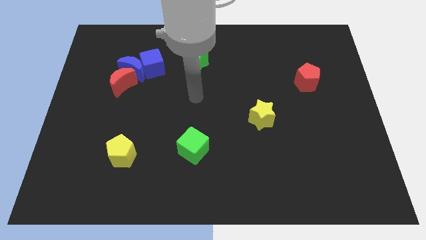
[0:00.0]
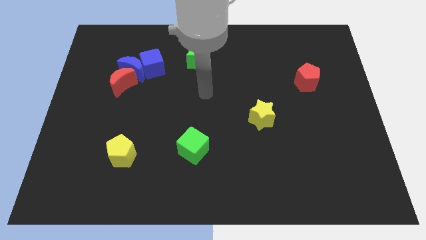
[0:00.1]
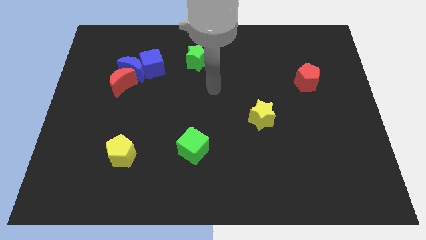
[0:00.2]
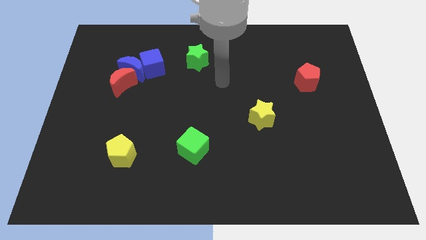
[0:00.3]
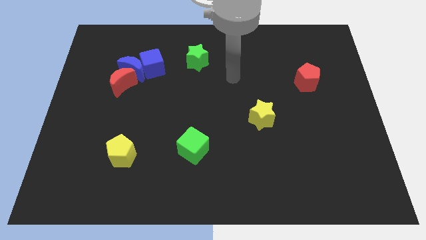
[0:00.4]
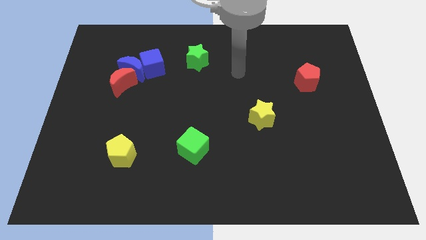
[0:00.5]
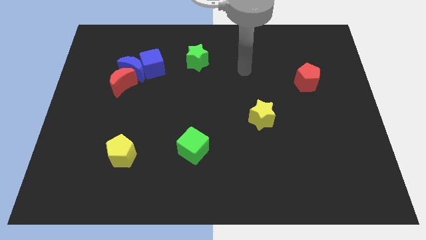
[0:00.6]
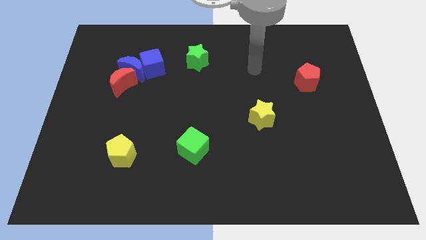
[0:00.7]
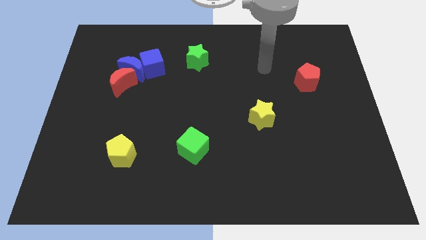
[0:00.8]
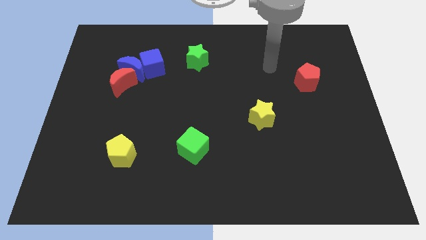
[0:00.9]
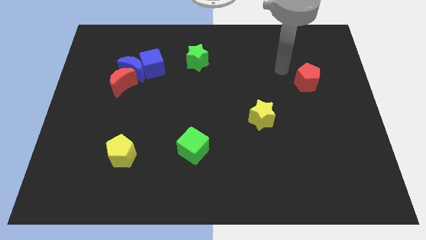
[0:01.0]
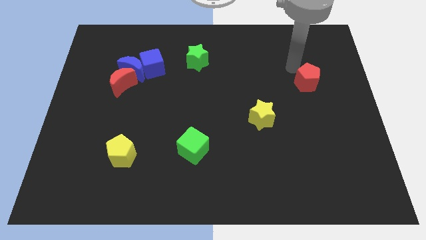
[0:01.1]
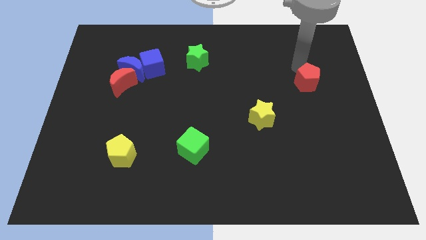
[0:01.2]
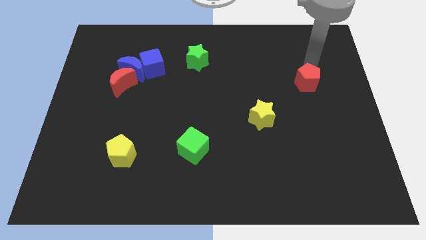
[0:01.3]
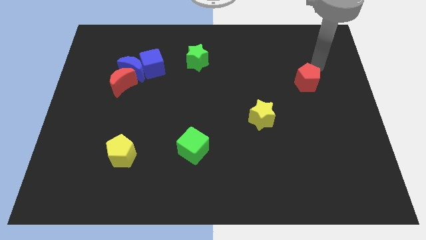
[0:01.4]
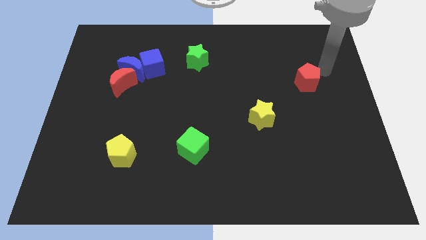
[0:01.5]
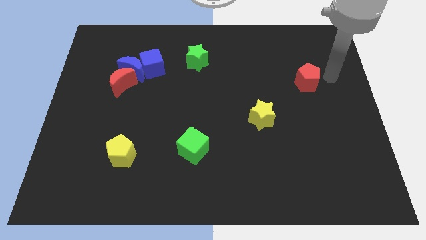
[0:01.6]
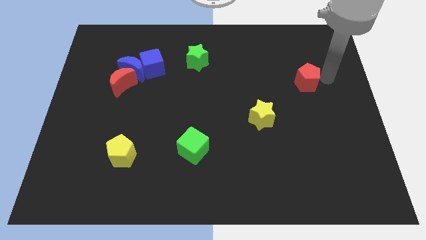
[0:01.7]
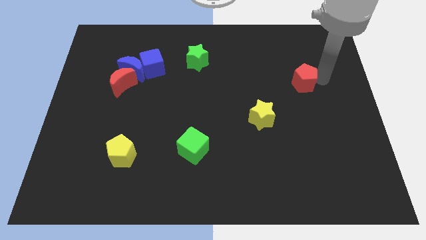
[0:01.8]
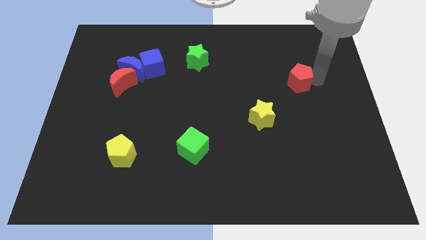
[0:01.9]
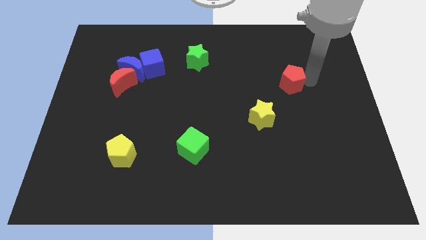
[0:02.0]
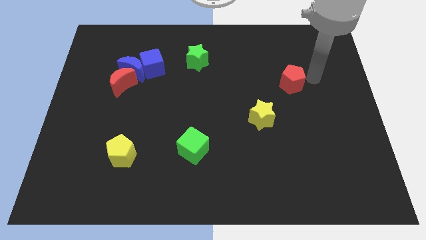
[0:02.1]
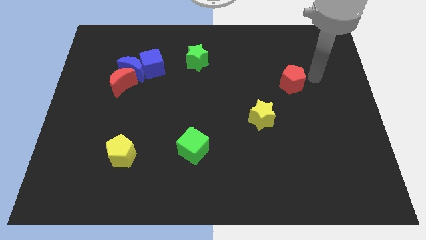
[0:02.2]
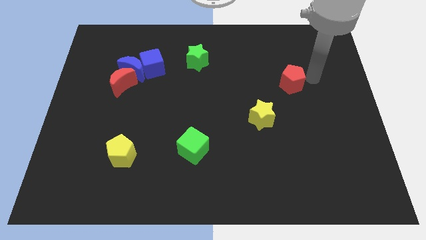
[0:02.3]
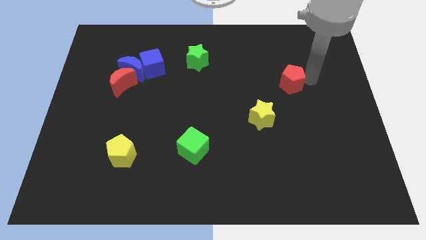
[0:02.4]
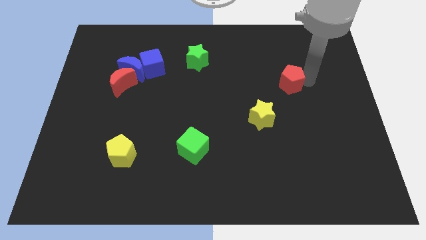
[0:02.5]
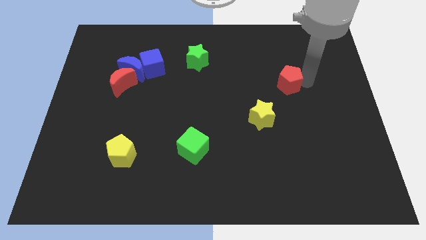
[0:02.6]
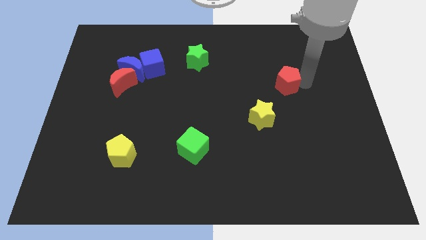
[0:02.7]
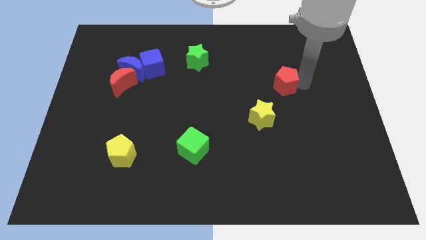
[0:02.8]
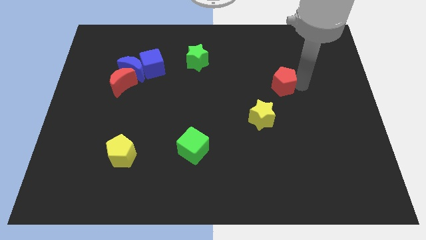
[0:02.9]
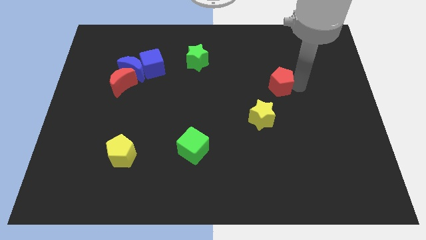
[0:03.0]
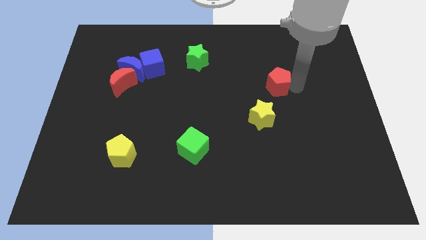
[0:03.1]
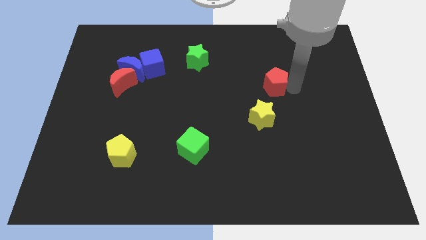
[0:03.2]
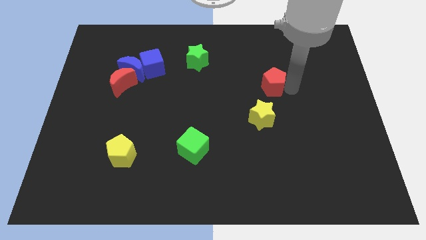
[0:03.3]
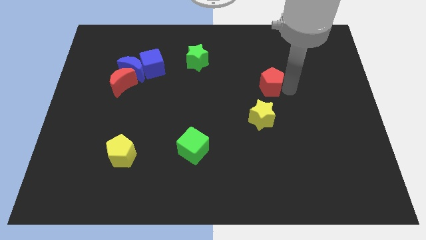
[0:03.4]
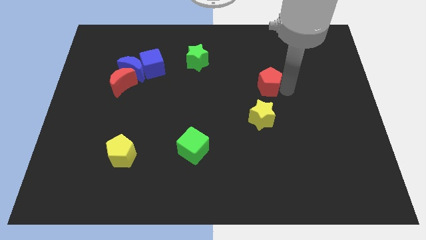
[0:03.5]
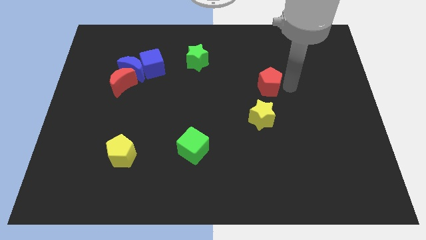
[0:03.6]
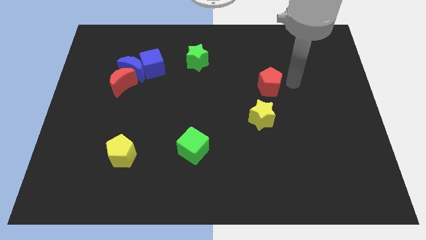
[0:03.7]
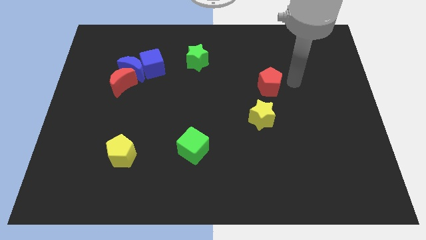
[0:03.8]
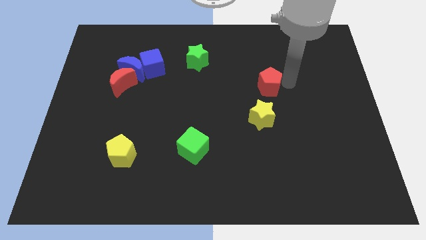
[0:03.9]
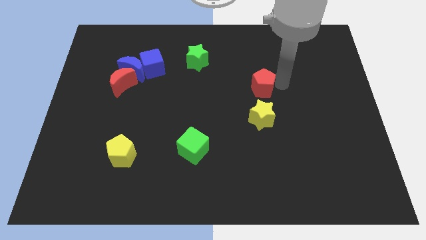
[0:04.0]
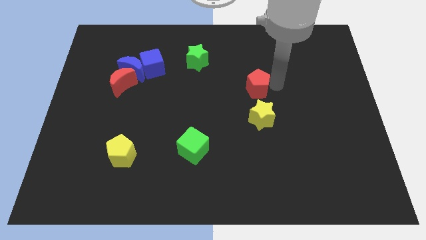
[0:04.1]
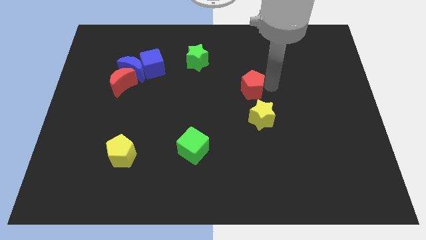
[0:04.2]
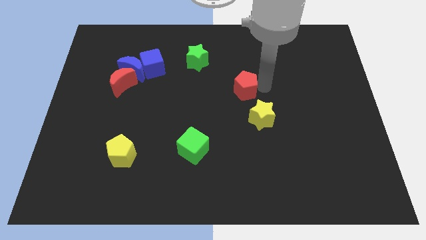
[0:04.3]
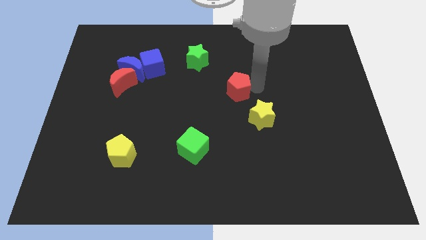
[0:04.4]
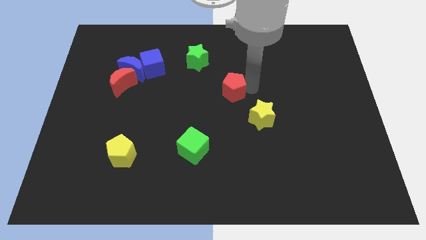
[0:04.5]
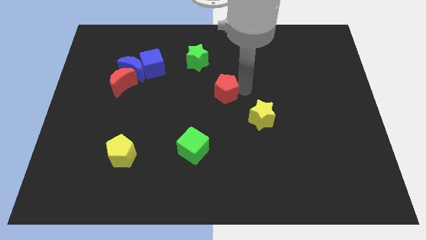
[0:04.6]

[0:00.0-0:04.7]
move the red pentagon left

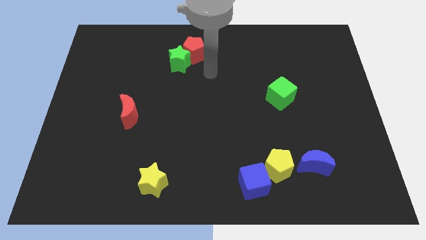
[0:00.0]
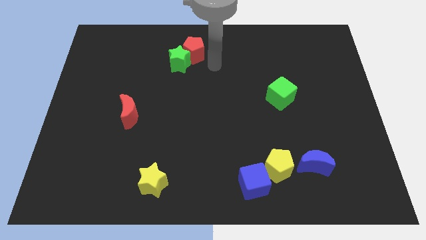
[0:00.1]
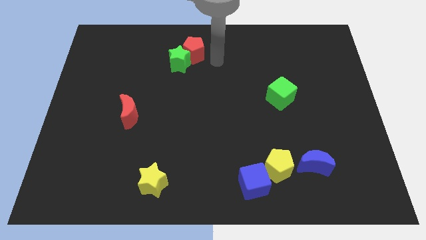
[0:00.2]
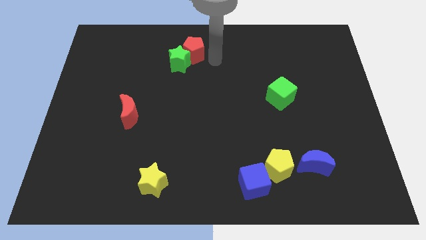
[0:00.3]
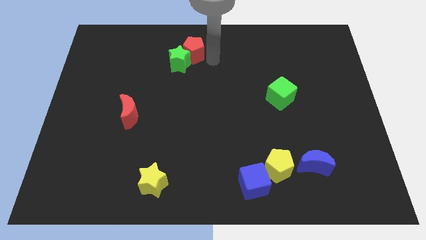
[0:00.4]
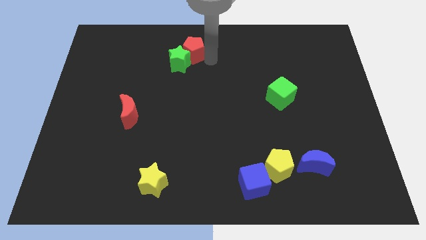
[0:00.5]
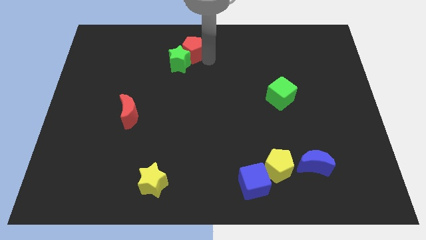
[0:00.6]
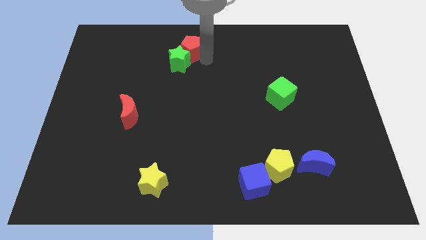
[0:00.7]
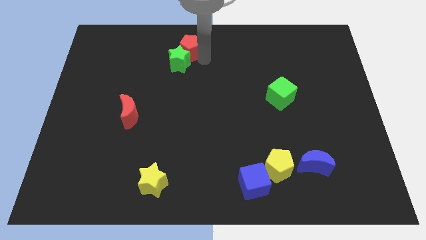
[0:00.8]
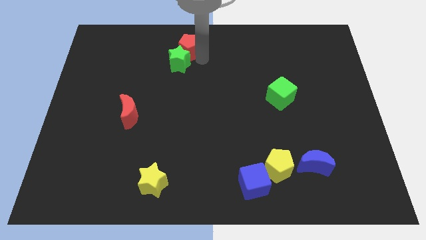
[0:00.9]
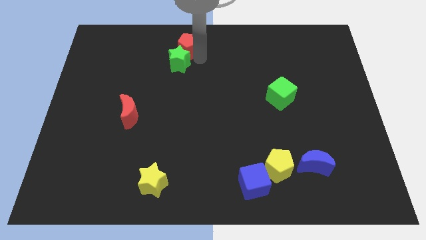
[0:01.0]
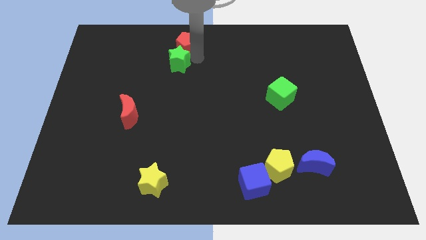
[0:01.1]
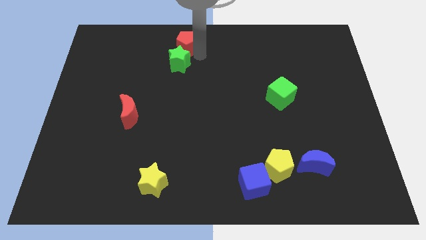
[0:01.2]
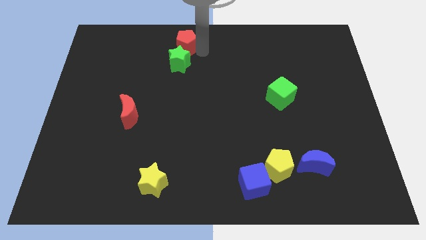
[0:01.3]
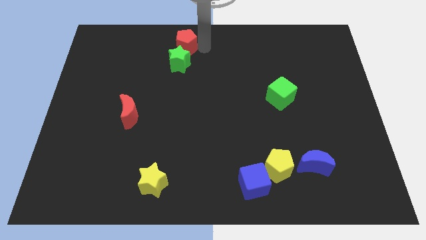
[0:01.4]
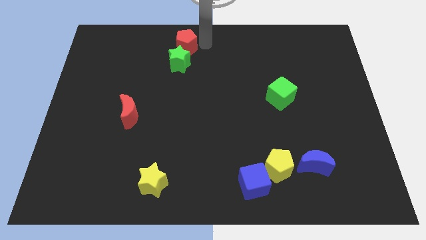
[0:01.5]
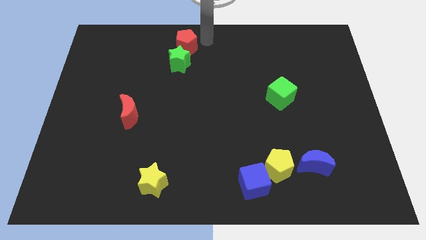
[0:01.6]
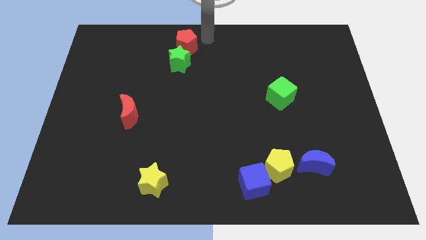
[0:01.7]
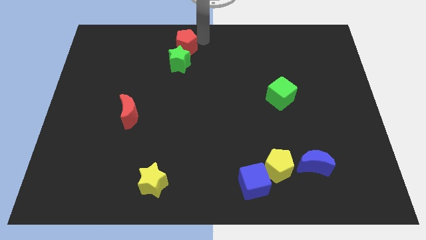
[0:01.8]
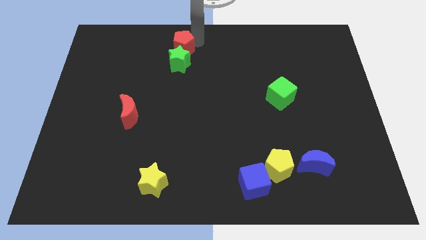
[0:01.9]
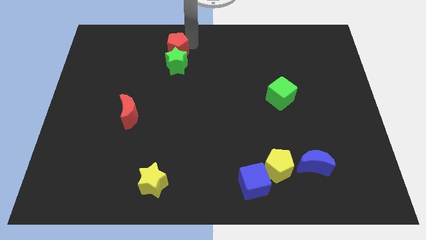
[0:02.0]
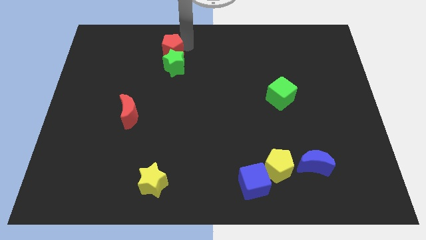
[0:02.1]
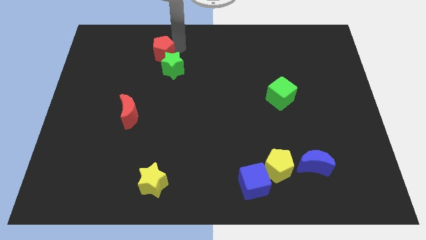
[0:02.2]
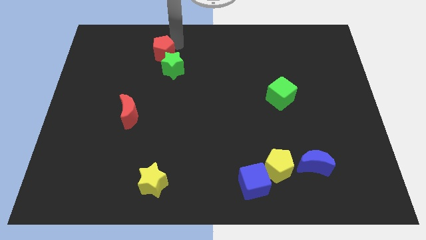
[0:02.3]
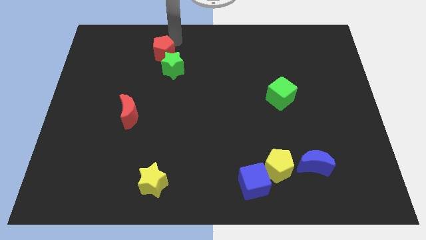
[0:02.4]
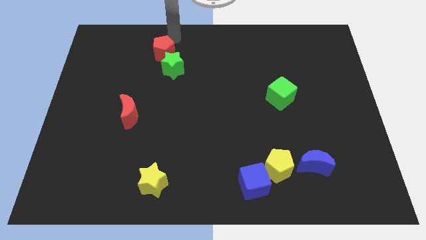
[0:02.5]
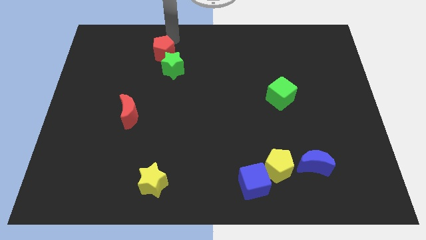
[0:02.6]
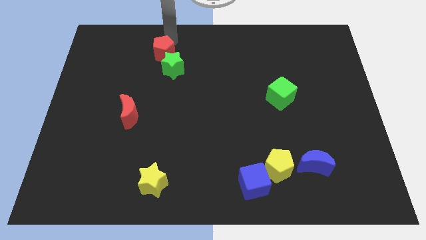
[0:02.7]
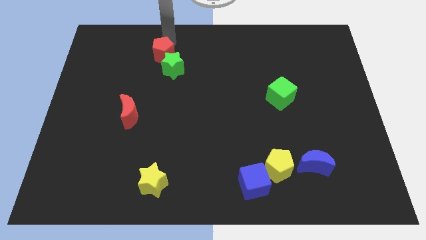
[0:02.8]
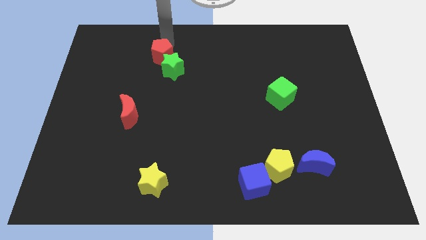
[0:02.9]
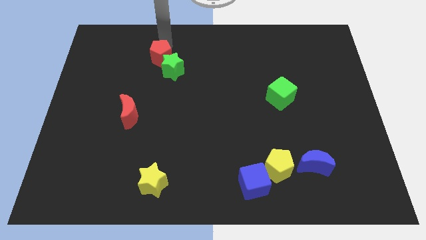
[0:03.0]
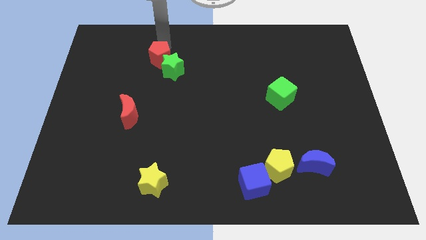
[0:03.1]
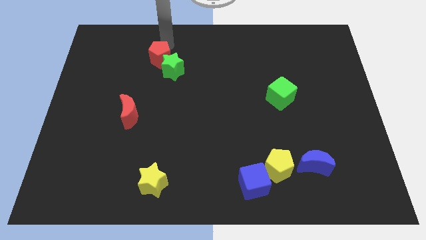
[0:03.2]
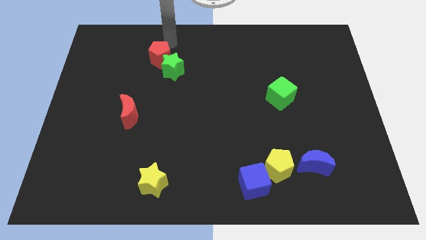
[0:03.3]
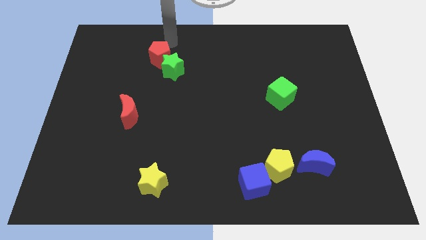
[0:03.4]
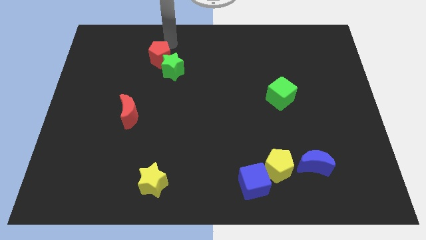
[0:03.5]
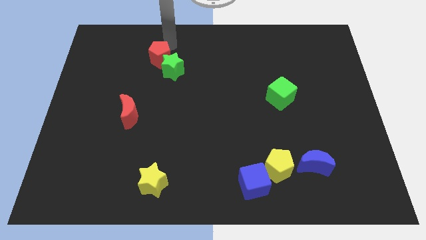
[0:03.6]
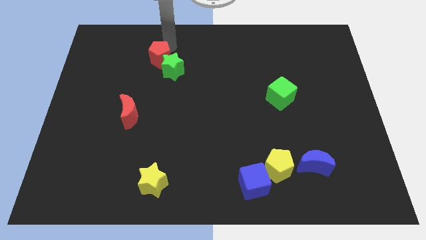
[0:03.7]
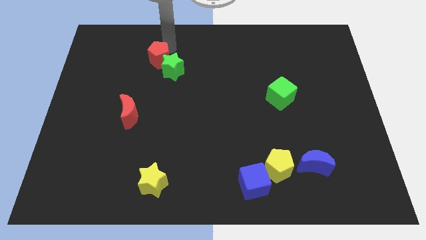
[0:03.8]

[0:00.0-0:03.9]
slide the red pentagon somewhat down and to the left
